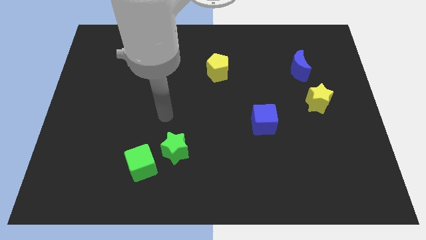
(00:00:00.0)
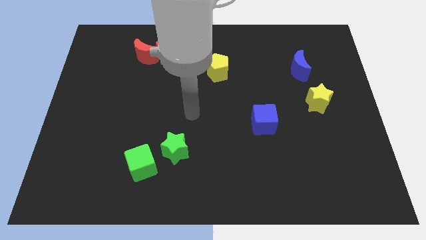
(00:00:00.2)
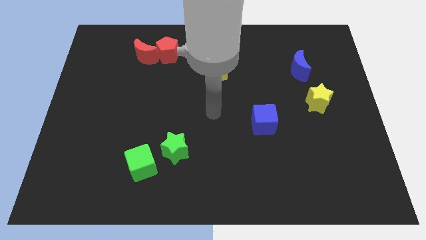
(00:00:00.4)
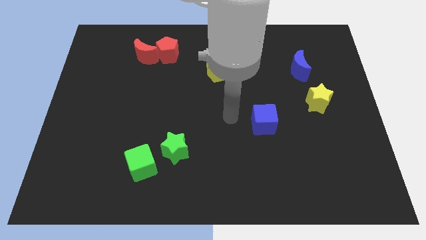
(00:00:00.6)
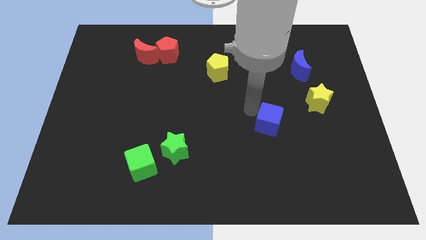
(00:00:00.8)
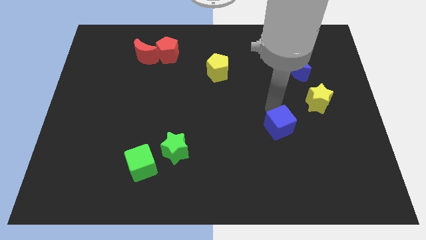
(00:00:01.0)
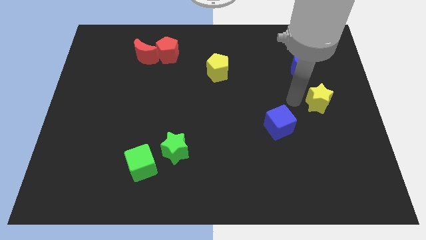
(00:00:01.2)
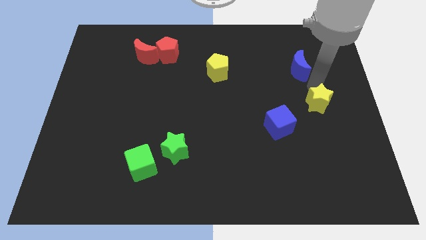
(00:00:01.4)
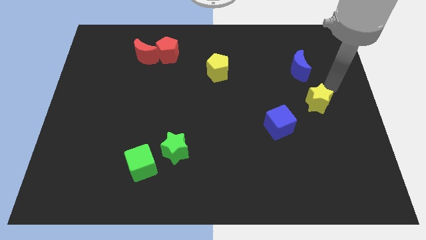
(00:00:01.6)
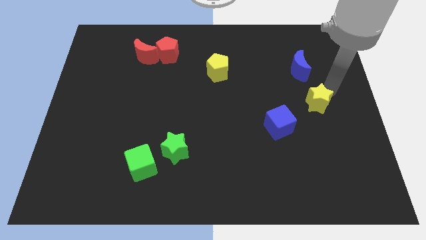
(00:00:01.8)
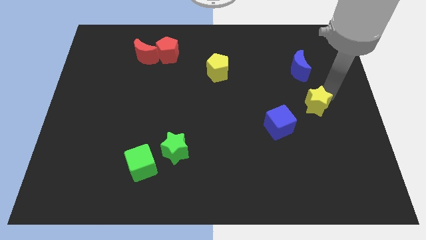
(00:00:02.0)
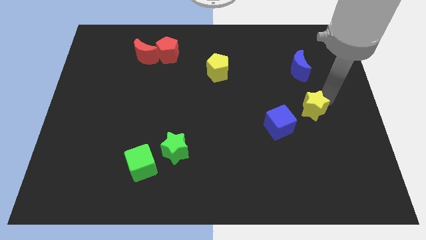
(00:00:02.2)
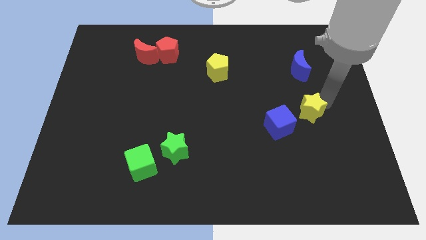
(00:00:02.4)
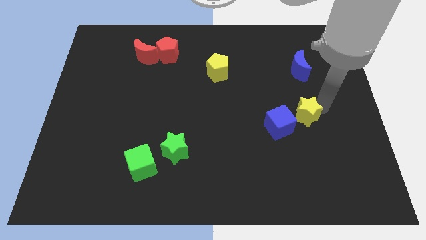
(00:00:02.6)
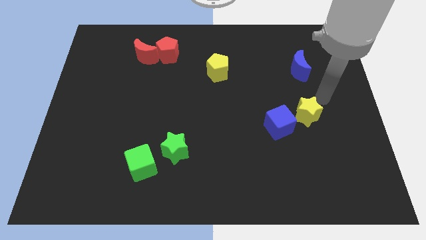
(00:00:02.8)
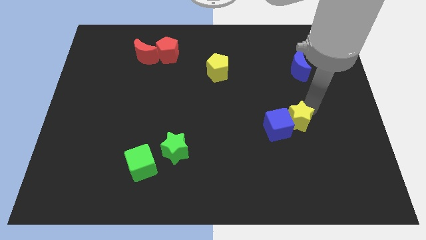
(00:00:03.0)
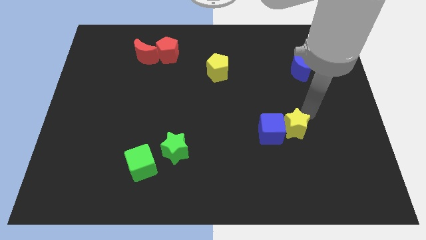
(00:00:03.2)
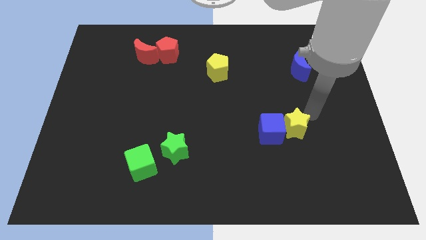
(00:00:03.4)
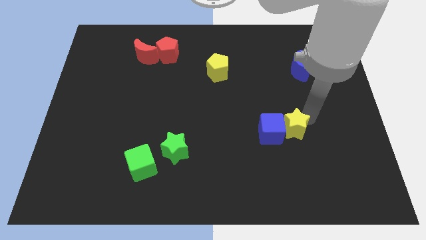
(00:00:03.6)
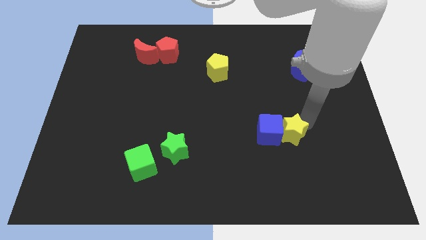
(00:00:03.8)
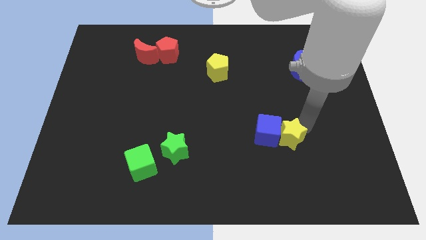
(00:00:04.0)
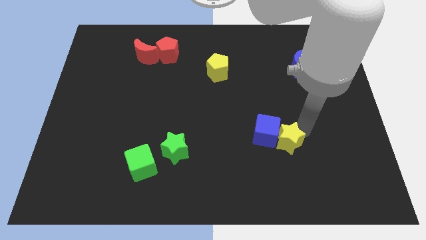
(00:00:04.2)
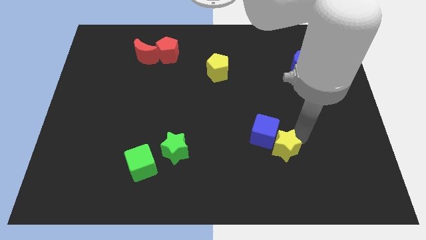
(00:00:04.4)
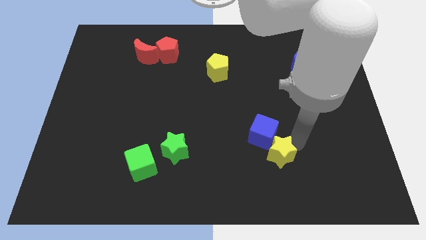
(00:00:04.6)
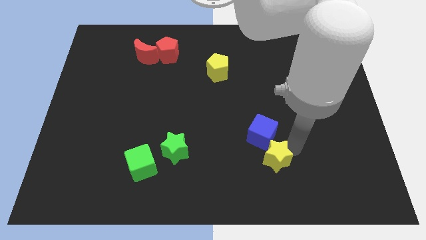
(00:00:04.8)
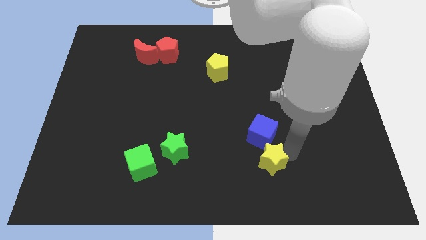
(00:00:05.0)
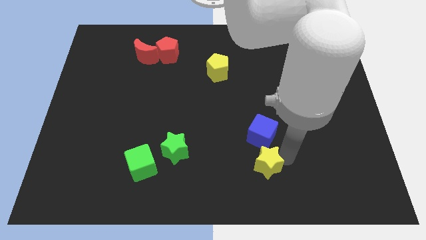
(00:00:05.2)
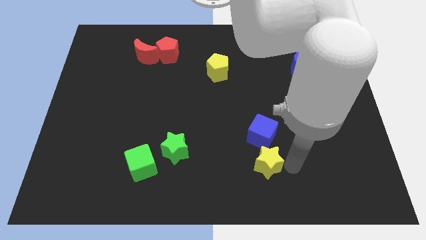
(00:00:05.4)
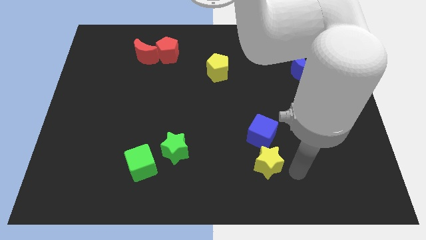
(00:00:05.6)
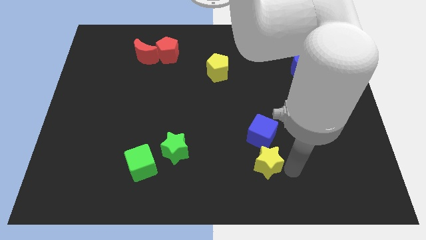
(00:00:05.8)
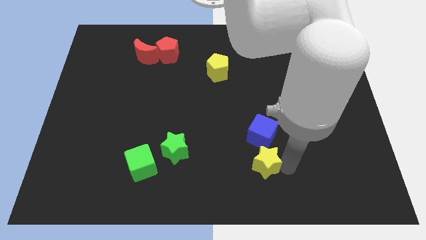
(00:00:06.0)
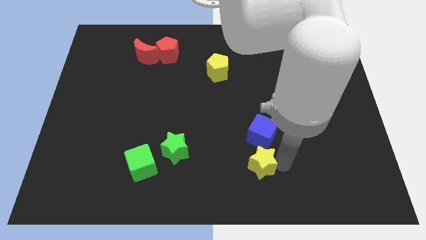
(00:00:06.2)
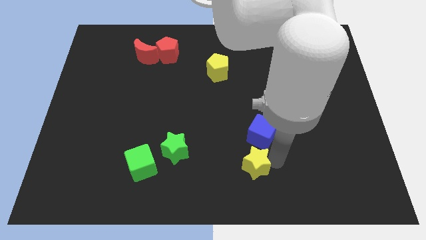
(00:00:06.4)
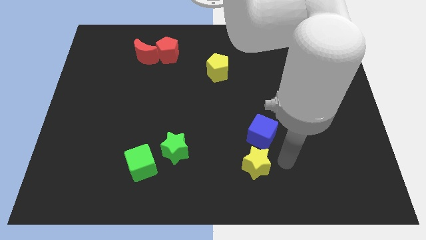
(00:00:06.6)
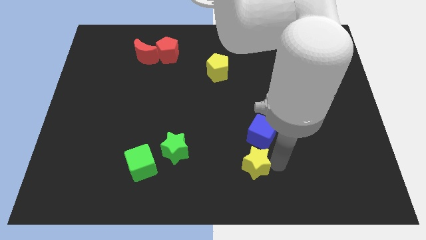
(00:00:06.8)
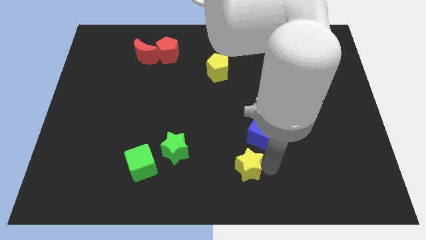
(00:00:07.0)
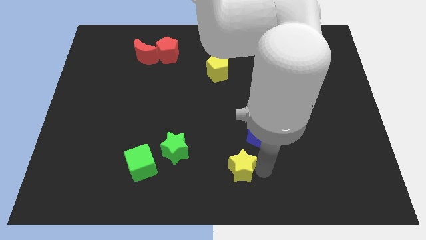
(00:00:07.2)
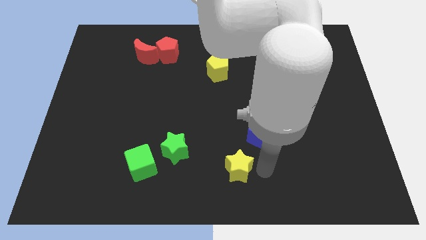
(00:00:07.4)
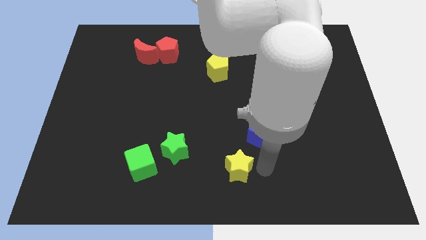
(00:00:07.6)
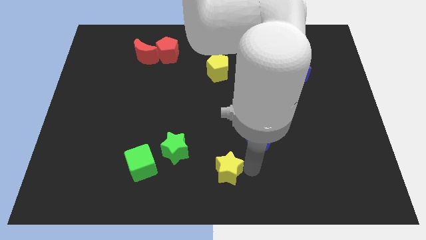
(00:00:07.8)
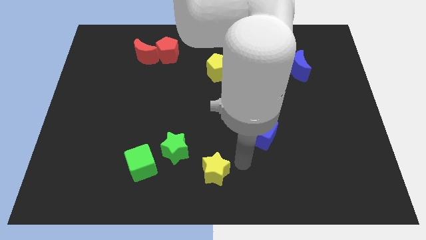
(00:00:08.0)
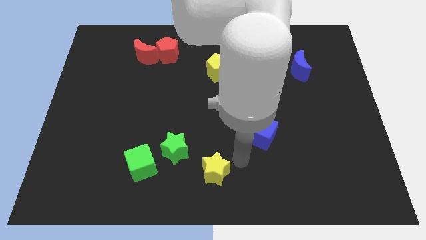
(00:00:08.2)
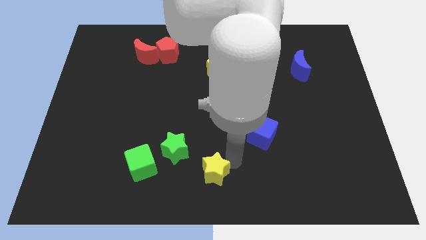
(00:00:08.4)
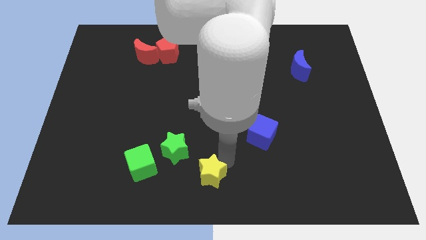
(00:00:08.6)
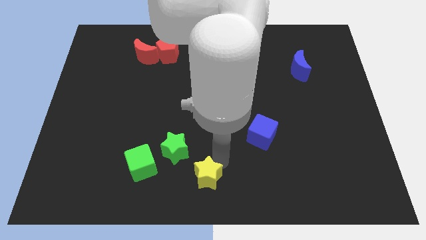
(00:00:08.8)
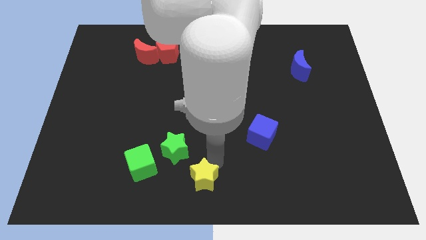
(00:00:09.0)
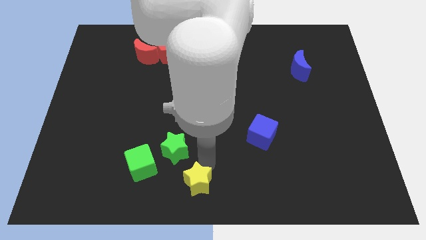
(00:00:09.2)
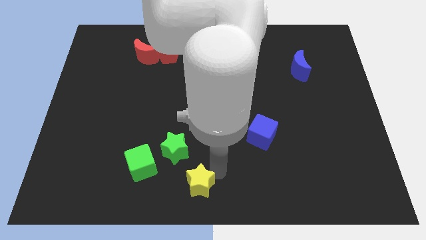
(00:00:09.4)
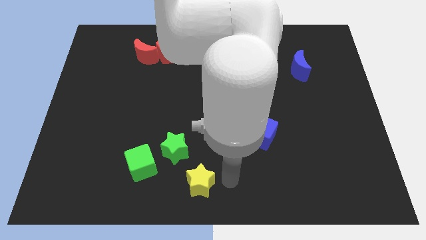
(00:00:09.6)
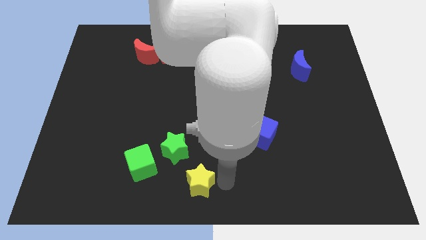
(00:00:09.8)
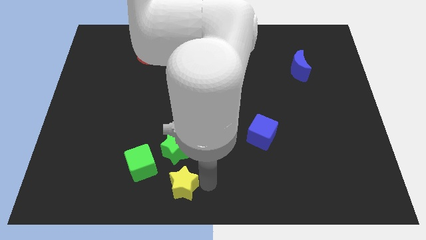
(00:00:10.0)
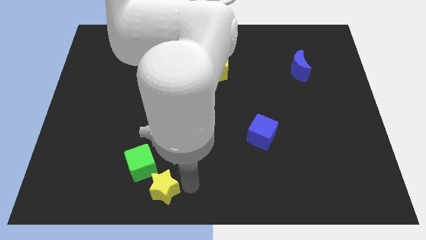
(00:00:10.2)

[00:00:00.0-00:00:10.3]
move the yellow star diagonally down and to the left of the green star

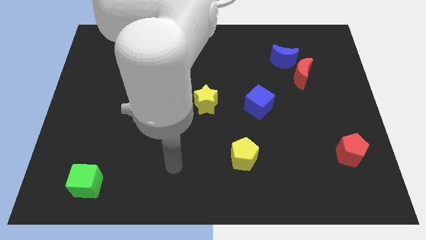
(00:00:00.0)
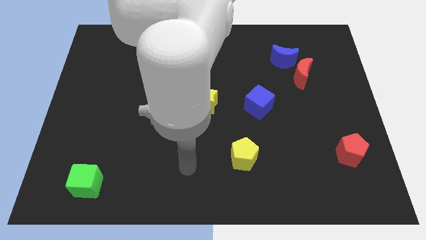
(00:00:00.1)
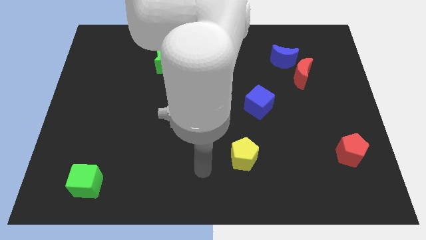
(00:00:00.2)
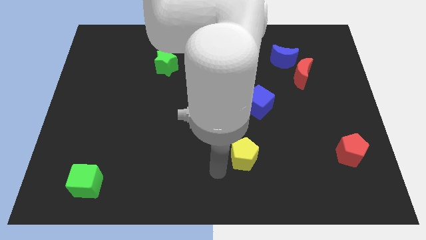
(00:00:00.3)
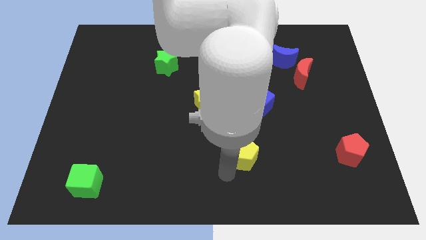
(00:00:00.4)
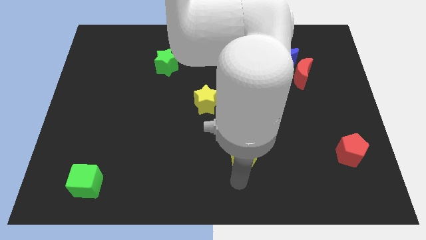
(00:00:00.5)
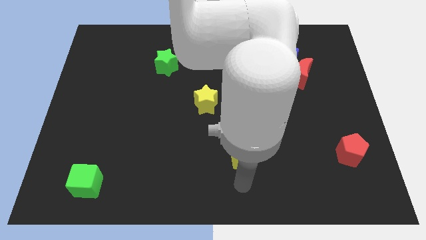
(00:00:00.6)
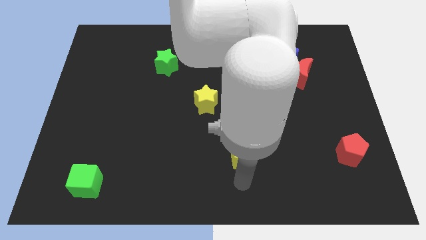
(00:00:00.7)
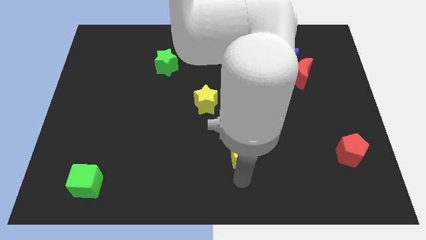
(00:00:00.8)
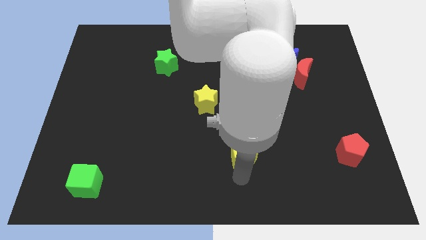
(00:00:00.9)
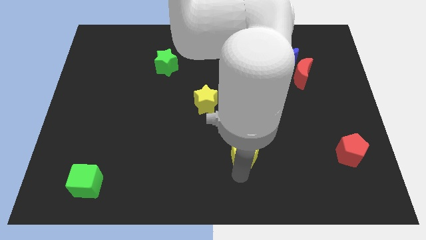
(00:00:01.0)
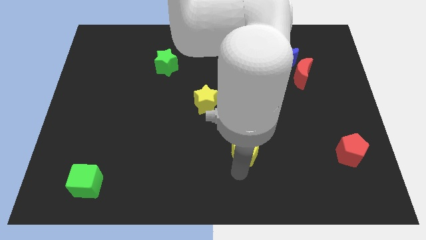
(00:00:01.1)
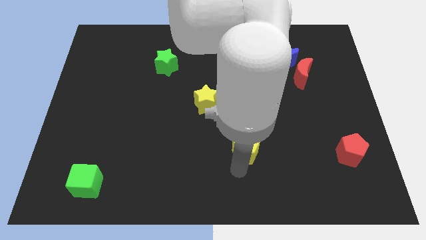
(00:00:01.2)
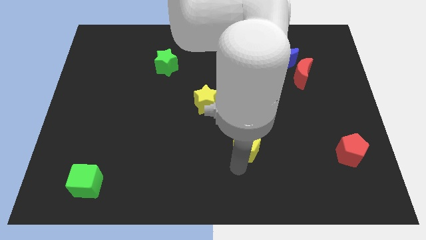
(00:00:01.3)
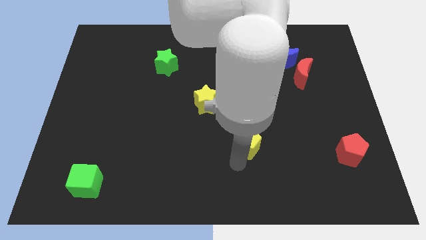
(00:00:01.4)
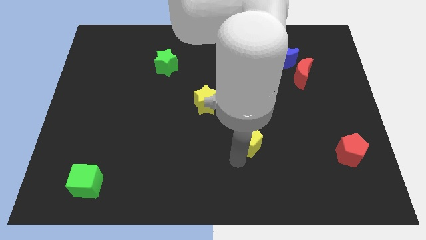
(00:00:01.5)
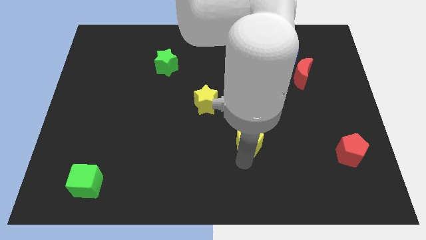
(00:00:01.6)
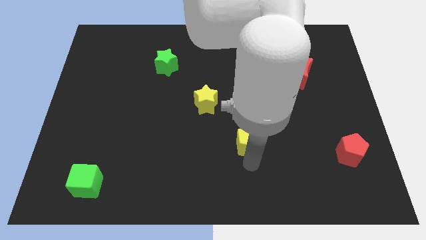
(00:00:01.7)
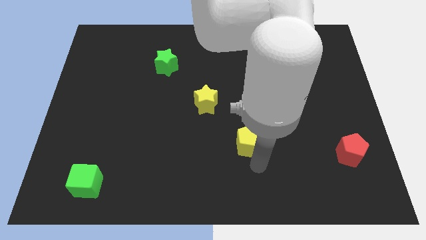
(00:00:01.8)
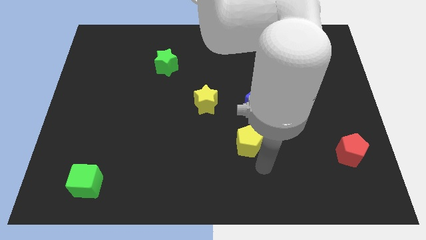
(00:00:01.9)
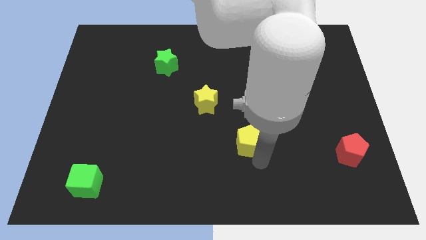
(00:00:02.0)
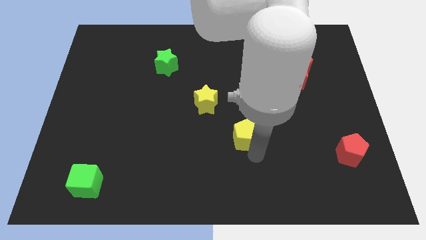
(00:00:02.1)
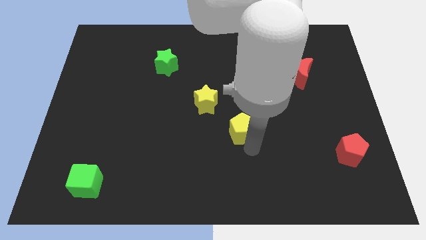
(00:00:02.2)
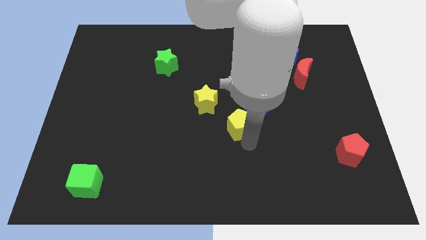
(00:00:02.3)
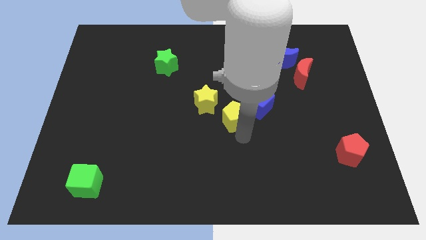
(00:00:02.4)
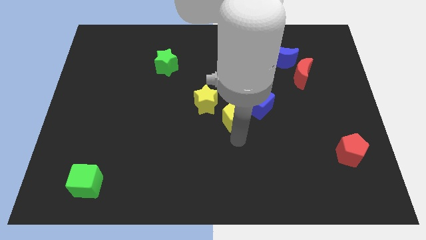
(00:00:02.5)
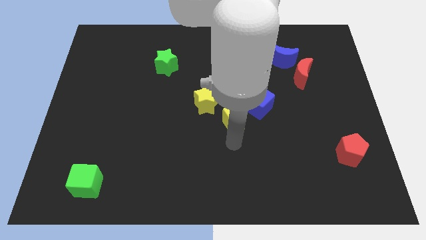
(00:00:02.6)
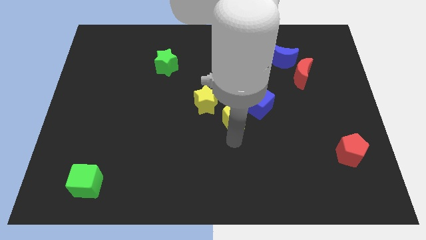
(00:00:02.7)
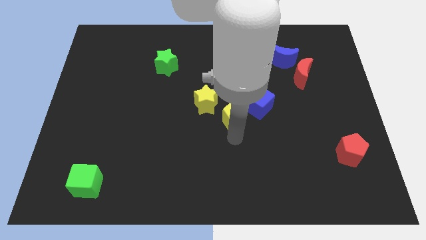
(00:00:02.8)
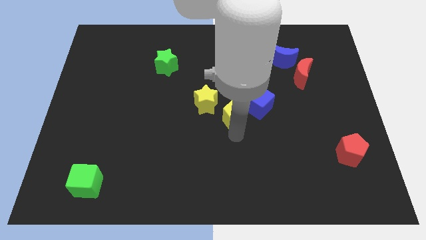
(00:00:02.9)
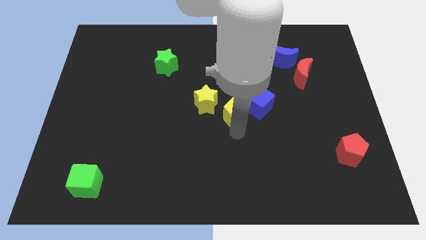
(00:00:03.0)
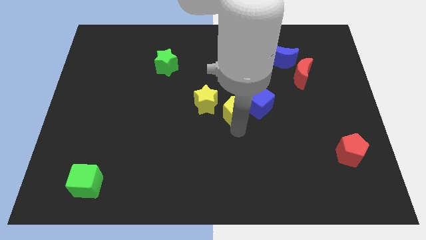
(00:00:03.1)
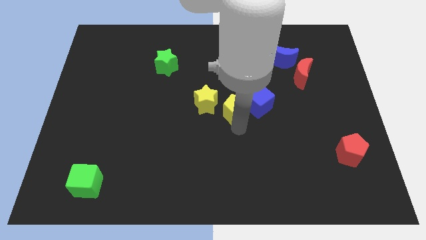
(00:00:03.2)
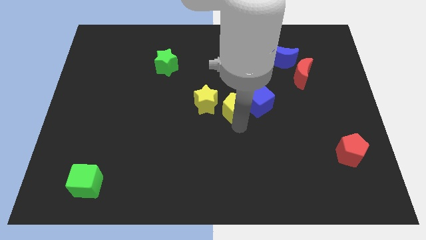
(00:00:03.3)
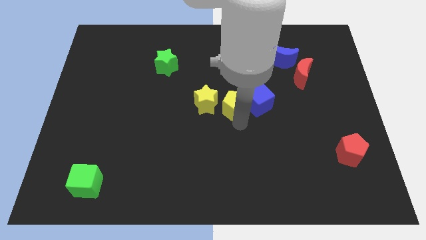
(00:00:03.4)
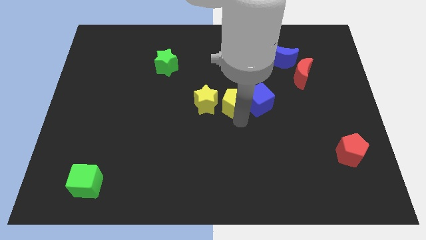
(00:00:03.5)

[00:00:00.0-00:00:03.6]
move the yellow pentagon to the top left of the blue cube
